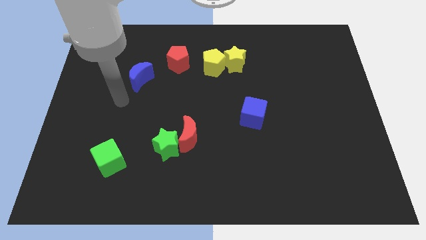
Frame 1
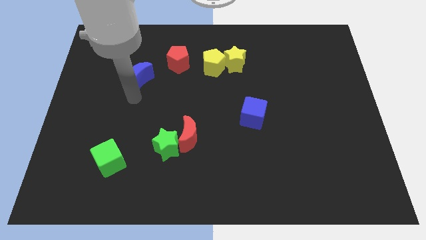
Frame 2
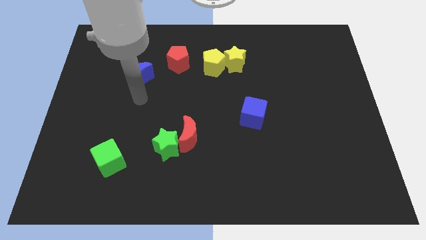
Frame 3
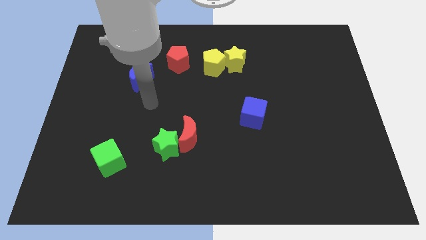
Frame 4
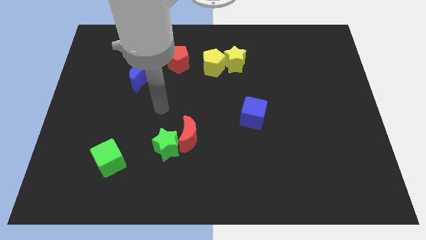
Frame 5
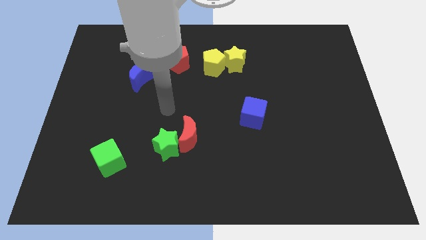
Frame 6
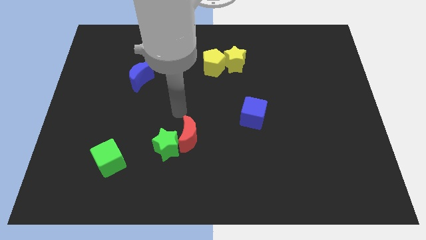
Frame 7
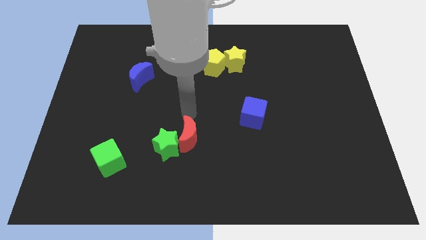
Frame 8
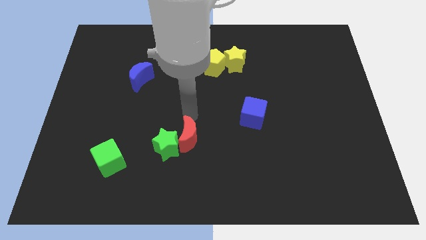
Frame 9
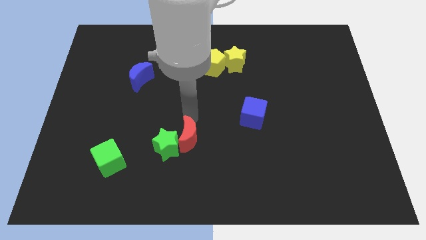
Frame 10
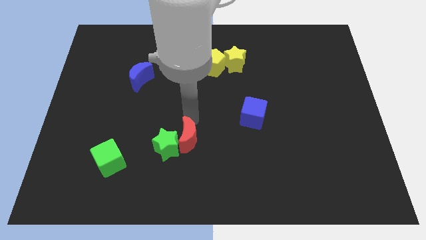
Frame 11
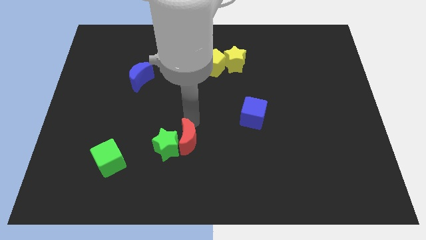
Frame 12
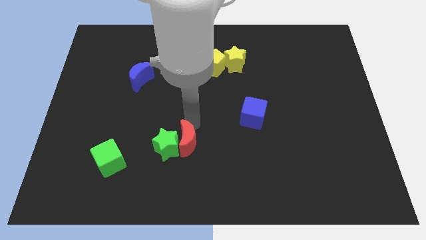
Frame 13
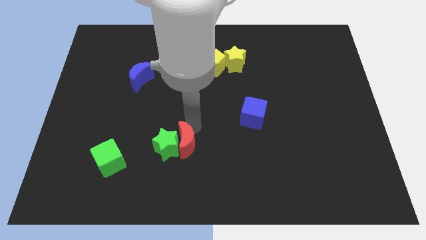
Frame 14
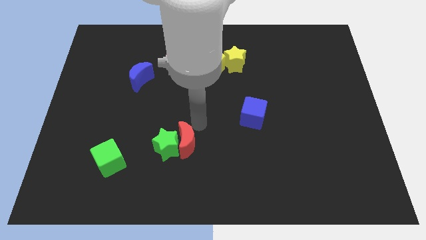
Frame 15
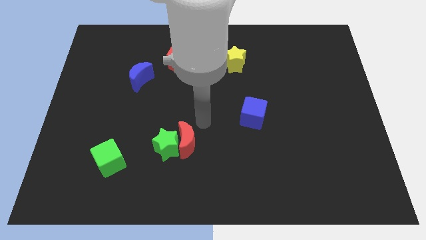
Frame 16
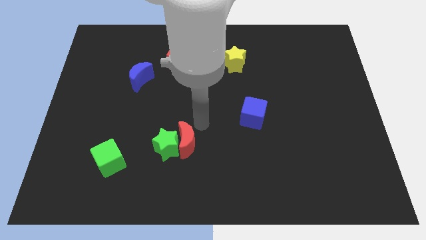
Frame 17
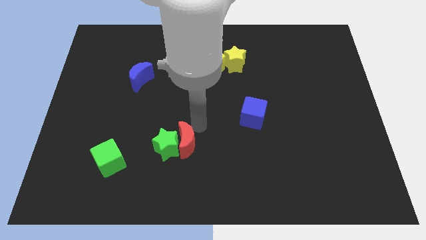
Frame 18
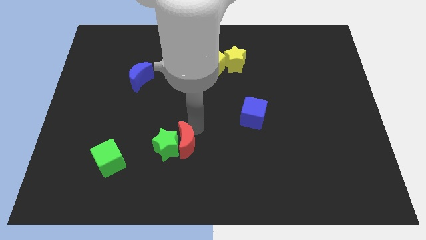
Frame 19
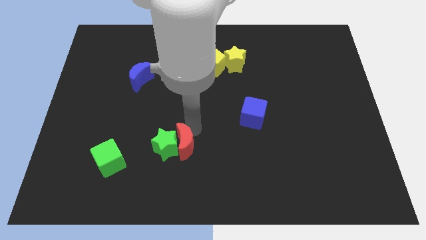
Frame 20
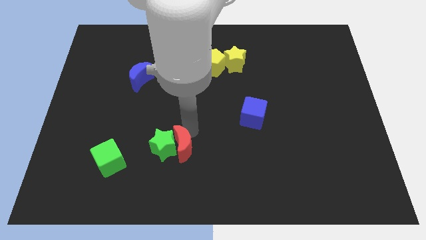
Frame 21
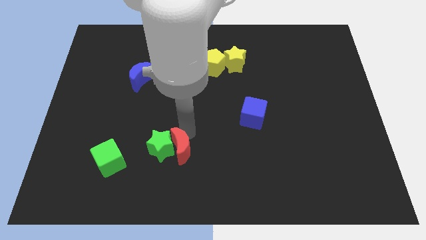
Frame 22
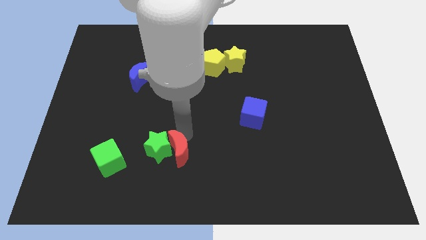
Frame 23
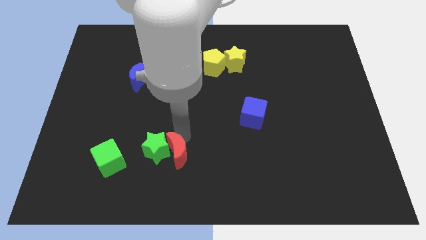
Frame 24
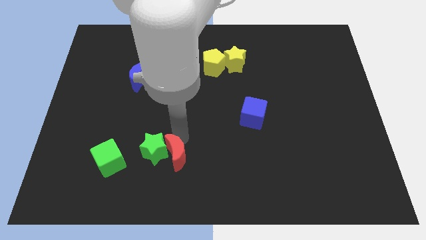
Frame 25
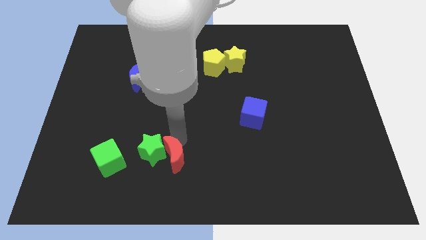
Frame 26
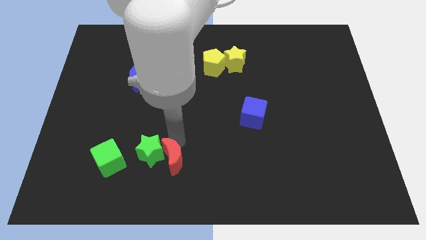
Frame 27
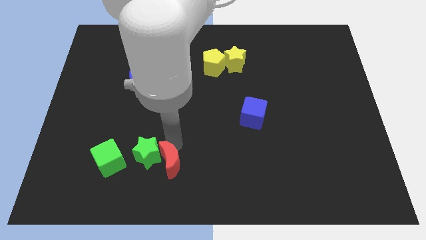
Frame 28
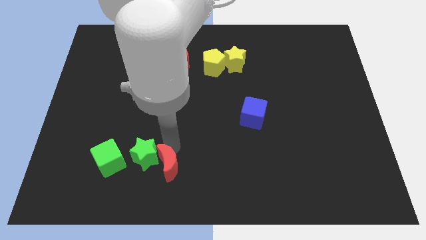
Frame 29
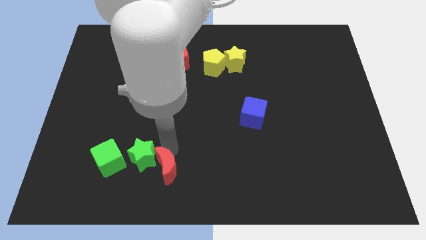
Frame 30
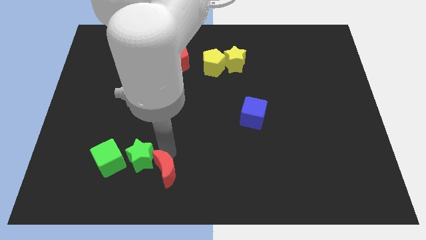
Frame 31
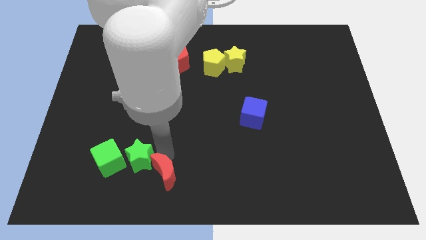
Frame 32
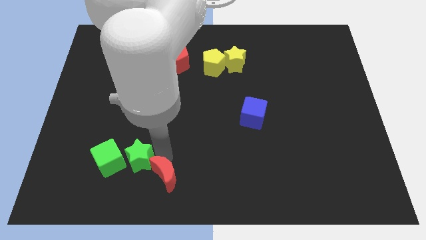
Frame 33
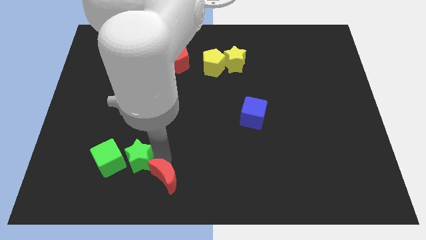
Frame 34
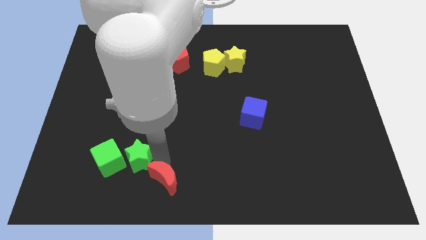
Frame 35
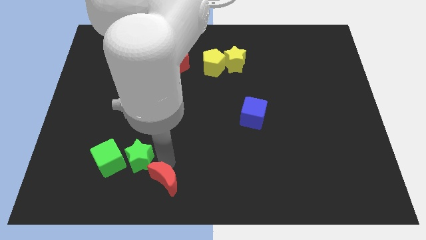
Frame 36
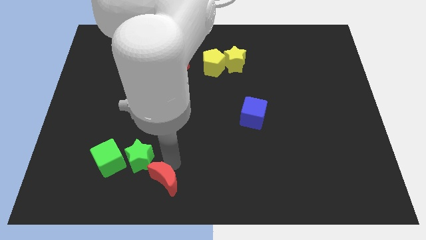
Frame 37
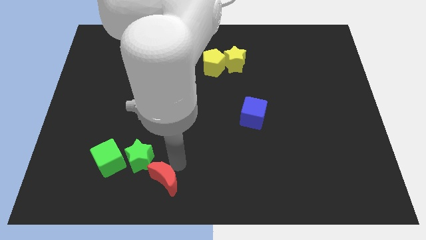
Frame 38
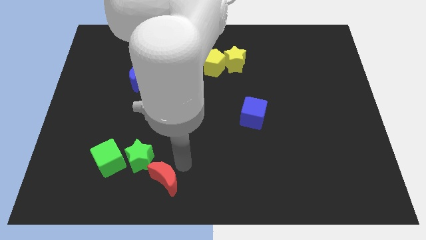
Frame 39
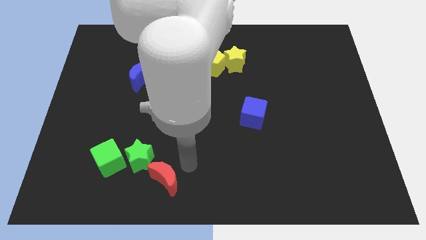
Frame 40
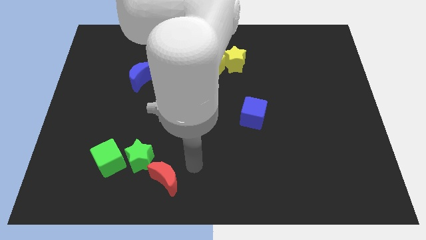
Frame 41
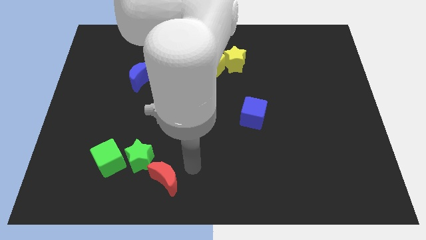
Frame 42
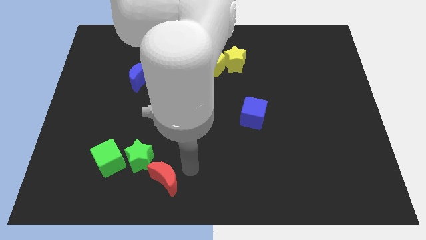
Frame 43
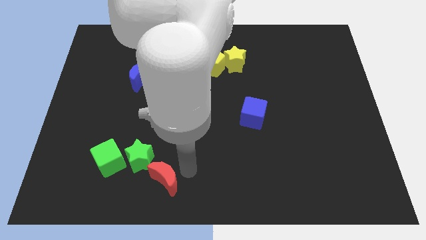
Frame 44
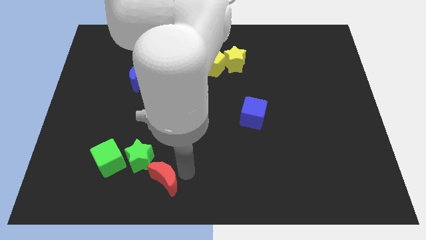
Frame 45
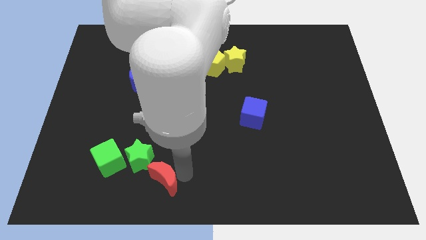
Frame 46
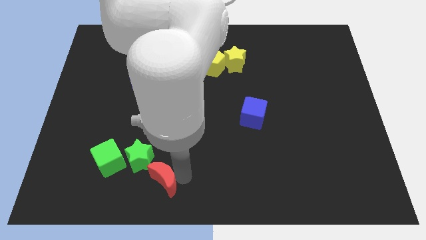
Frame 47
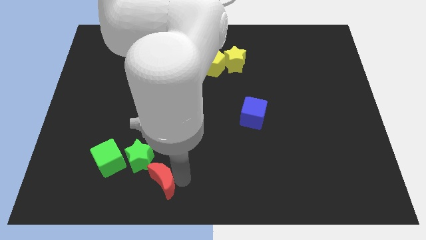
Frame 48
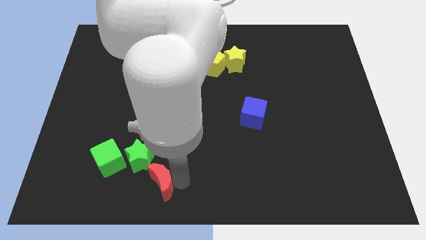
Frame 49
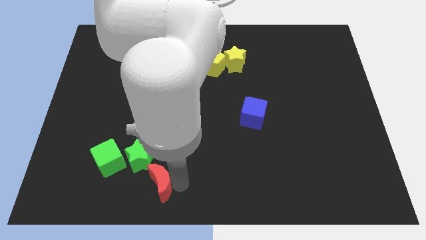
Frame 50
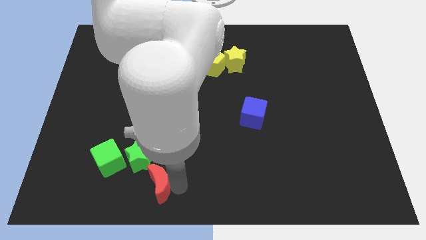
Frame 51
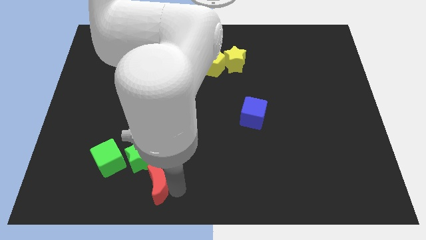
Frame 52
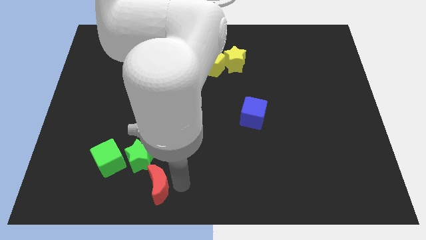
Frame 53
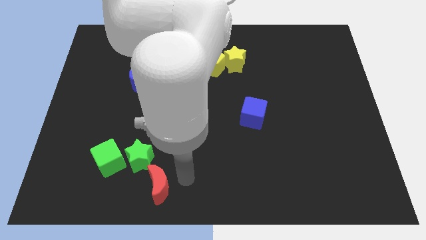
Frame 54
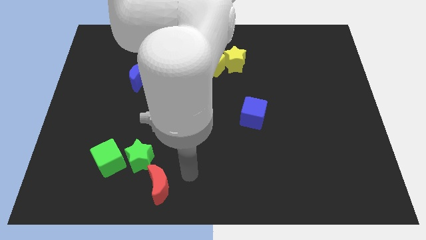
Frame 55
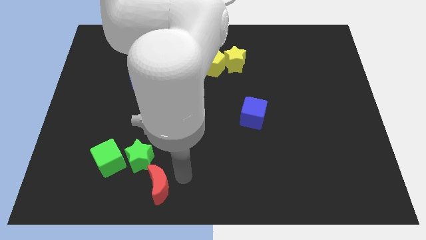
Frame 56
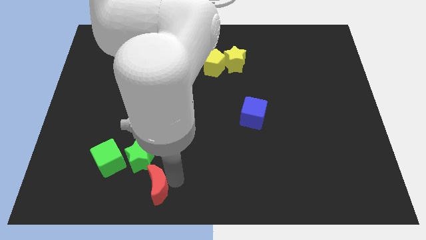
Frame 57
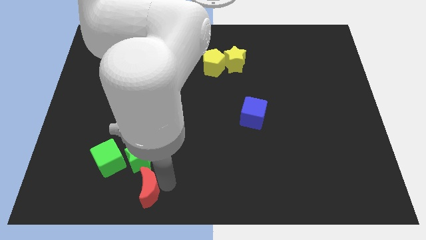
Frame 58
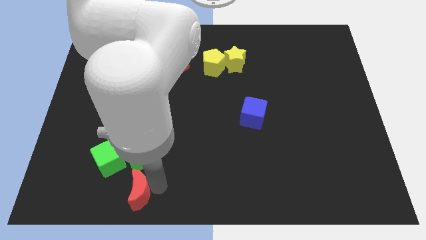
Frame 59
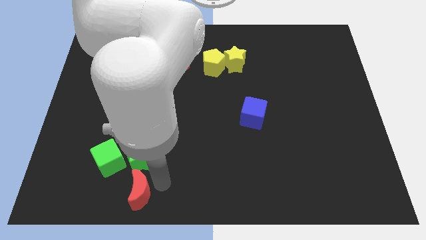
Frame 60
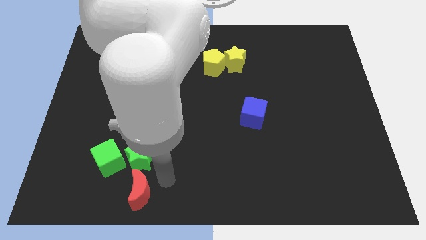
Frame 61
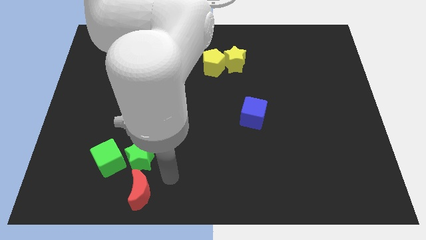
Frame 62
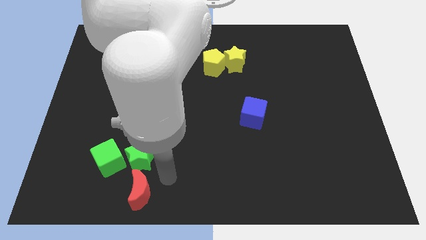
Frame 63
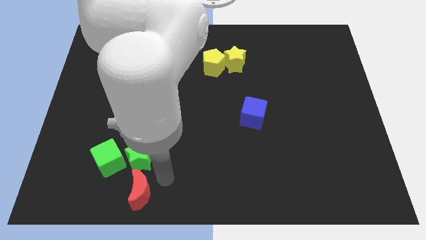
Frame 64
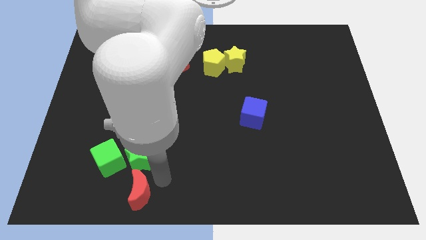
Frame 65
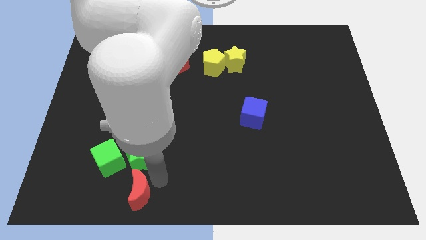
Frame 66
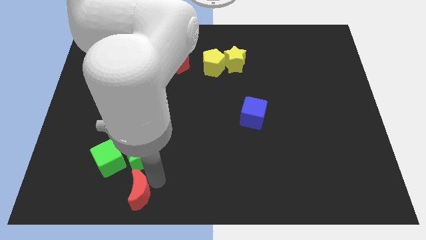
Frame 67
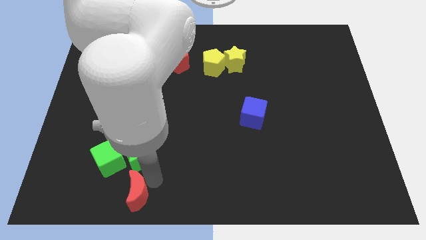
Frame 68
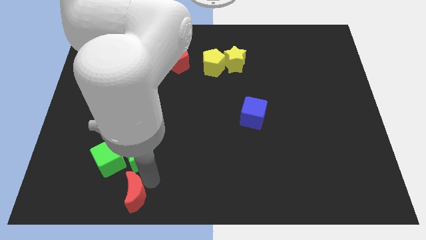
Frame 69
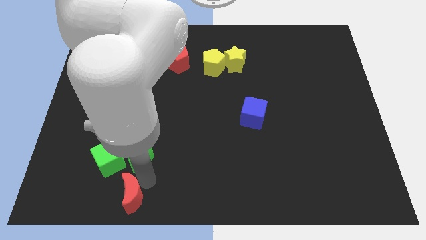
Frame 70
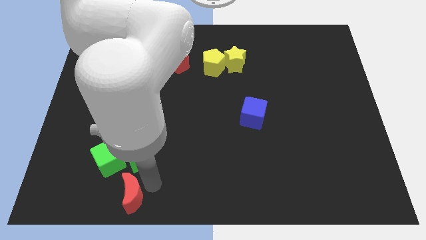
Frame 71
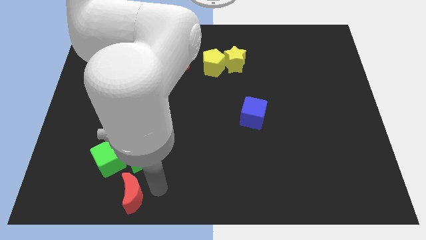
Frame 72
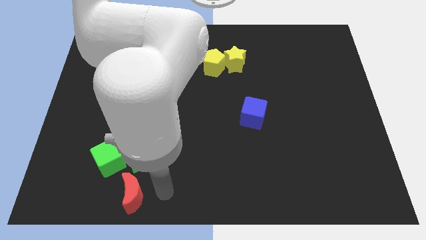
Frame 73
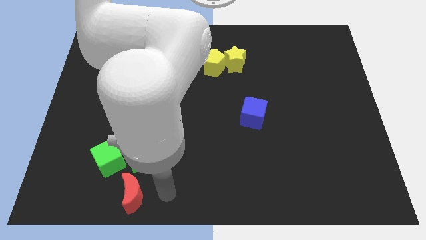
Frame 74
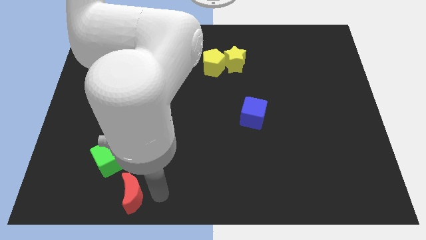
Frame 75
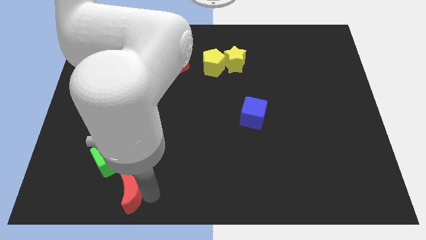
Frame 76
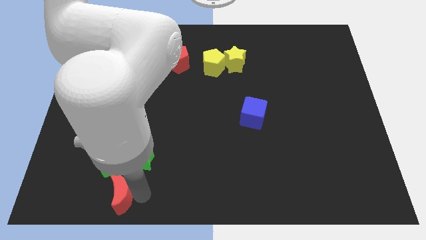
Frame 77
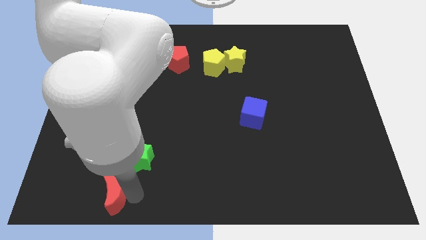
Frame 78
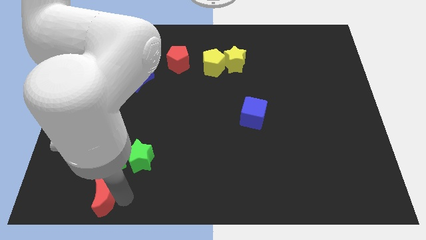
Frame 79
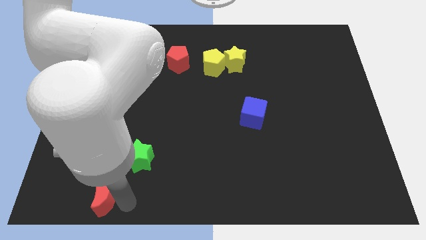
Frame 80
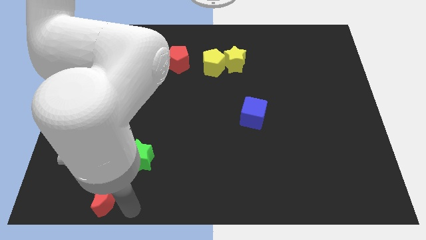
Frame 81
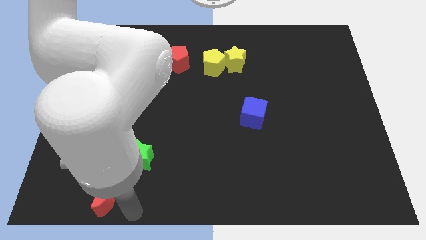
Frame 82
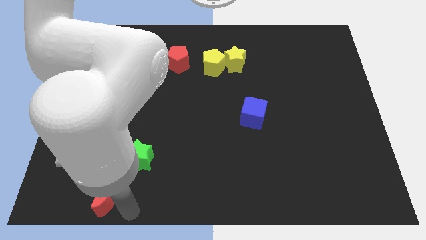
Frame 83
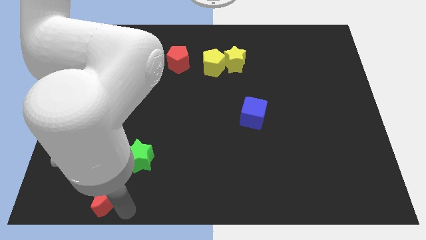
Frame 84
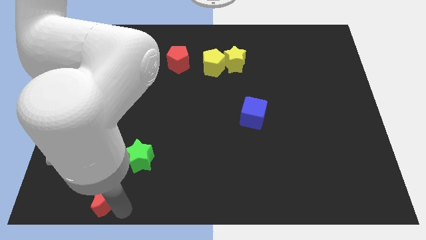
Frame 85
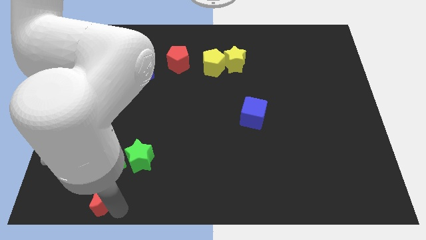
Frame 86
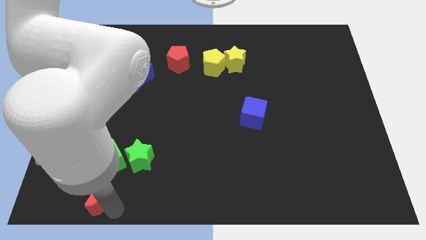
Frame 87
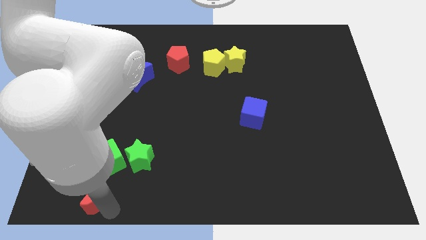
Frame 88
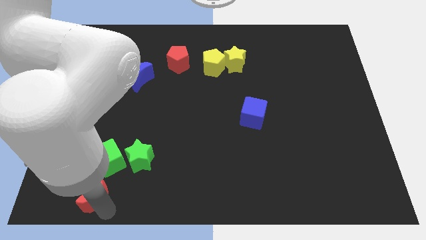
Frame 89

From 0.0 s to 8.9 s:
slide the red moon to the bottom left of the green cube
